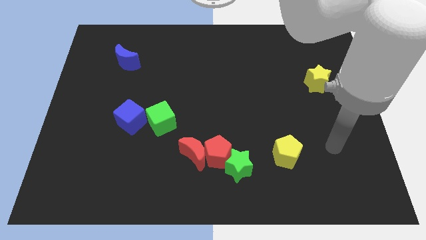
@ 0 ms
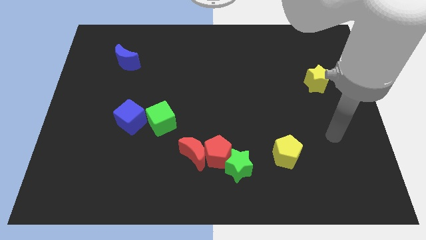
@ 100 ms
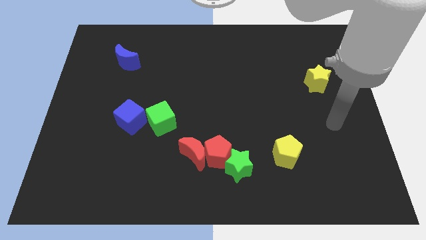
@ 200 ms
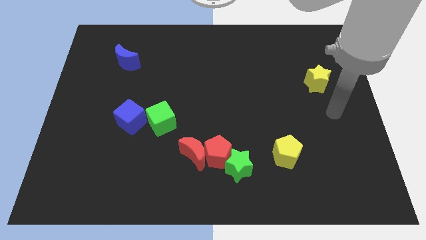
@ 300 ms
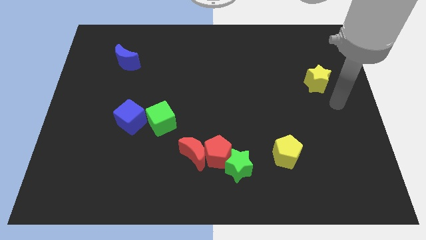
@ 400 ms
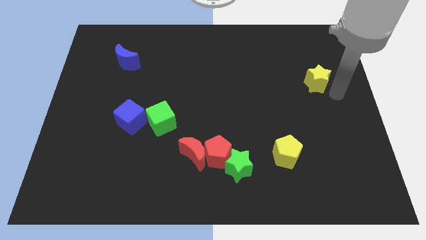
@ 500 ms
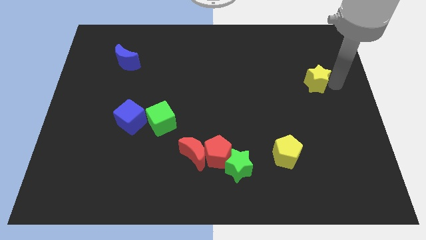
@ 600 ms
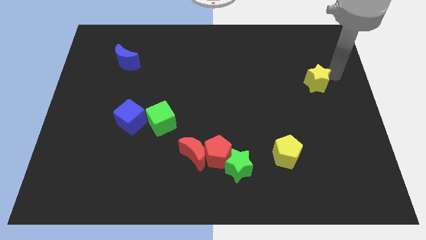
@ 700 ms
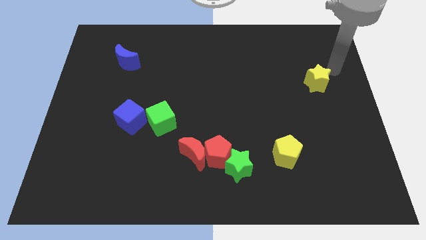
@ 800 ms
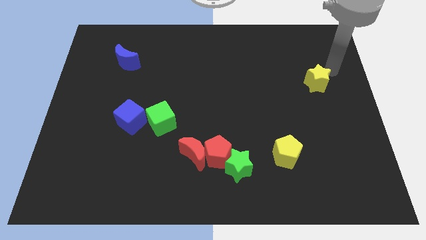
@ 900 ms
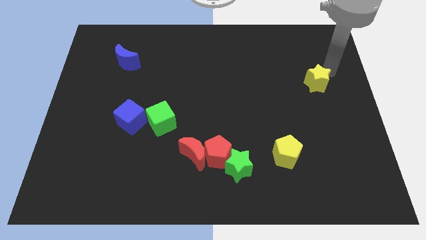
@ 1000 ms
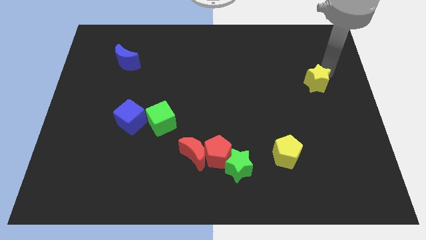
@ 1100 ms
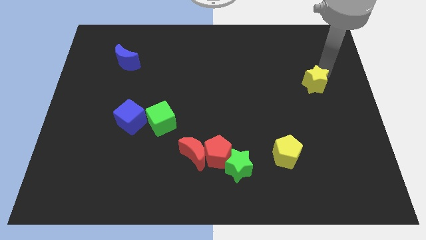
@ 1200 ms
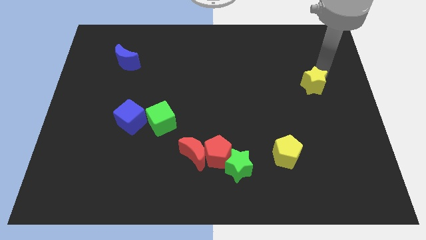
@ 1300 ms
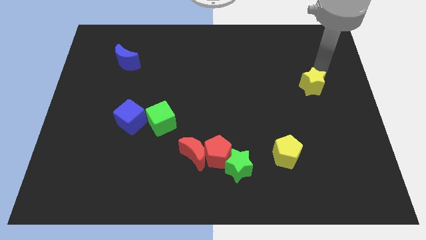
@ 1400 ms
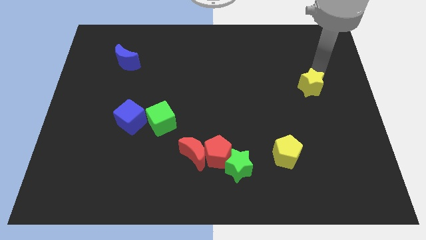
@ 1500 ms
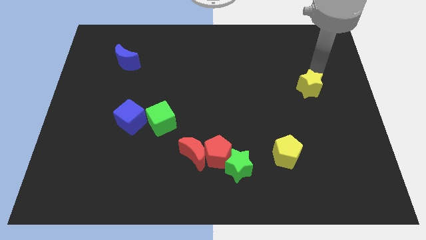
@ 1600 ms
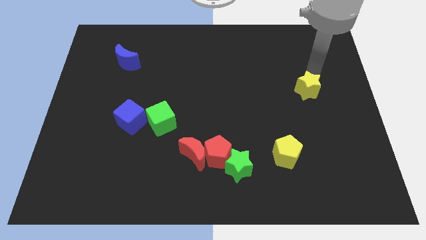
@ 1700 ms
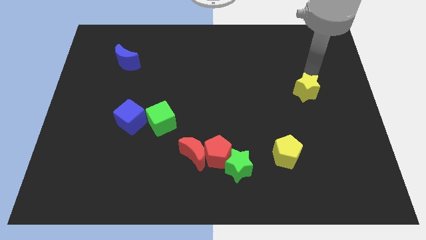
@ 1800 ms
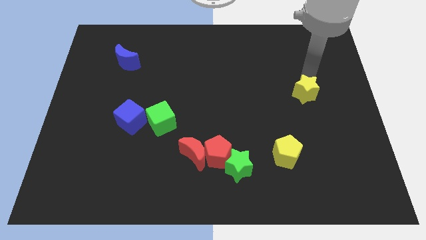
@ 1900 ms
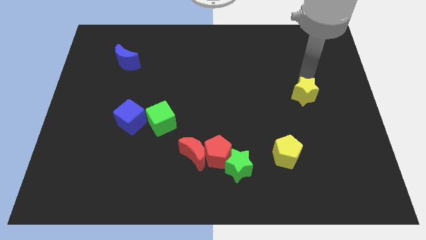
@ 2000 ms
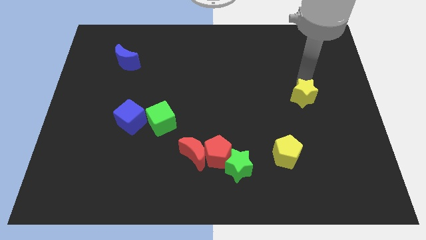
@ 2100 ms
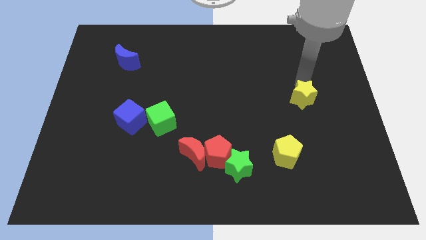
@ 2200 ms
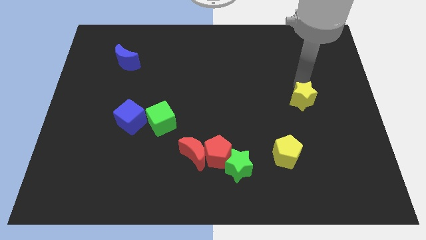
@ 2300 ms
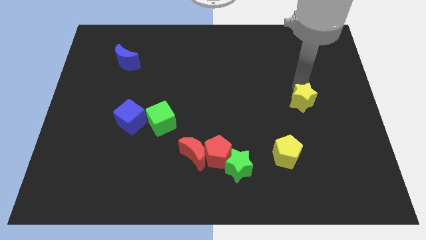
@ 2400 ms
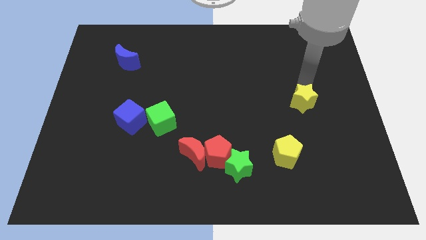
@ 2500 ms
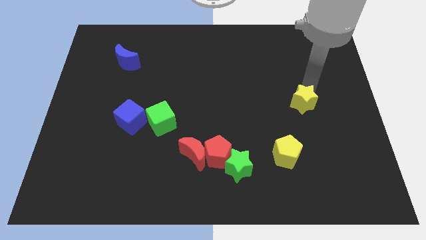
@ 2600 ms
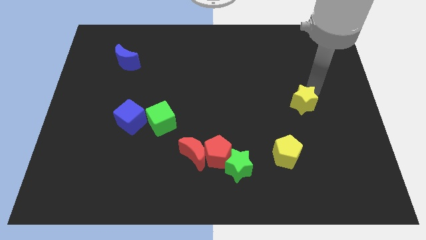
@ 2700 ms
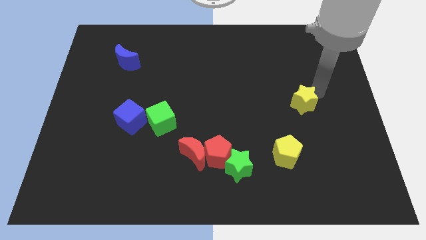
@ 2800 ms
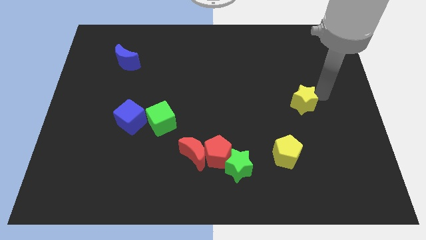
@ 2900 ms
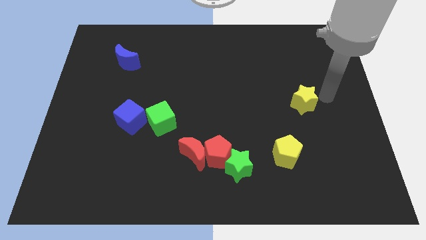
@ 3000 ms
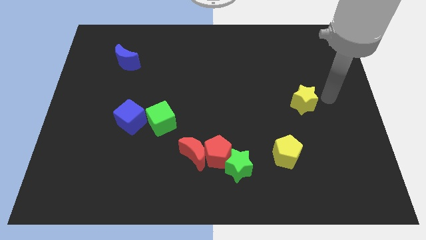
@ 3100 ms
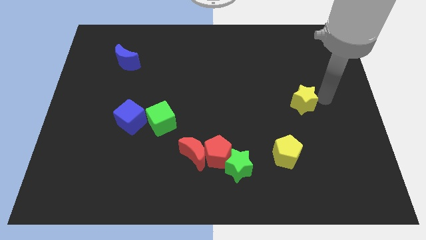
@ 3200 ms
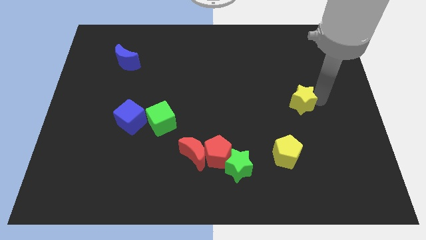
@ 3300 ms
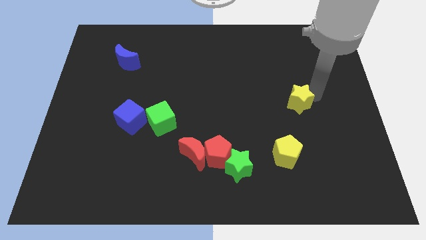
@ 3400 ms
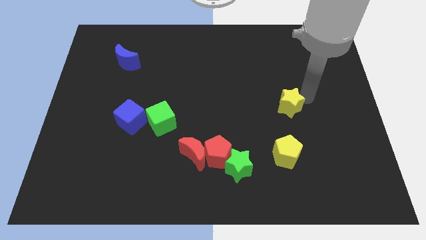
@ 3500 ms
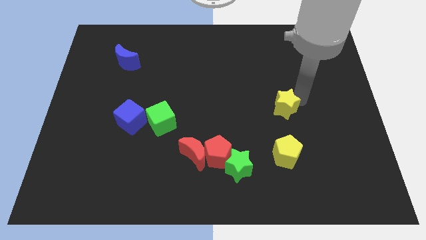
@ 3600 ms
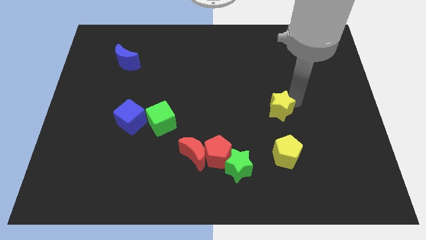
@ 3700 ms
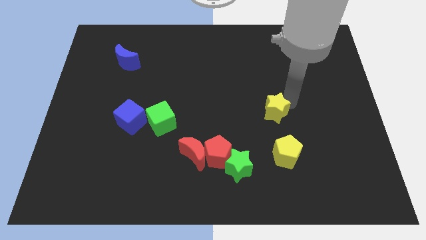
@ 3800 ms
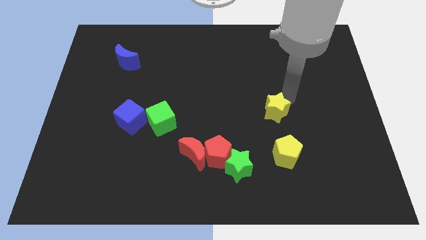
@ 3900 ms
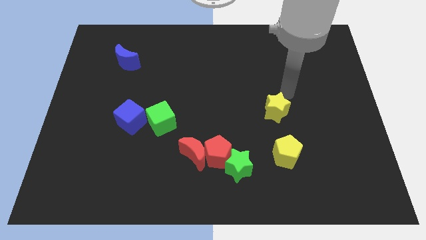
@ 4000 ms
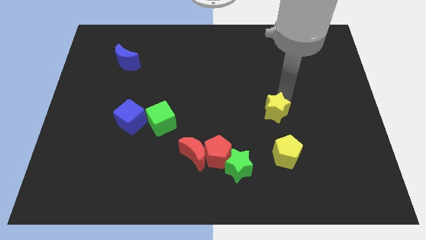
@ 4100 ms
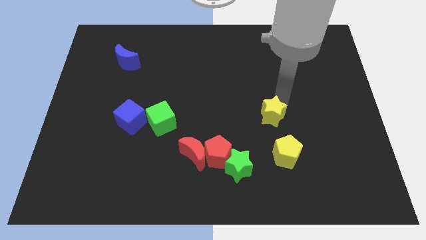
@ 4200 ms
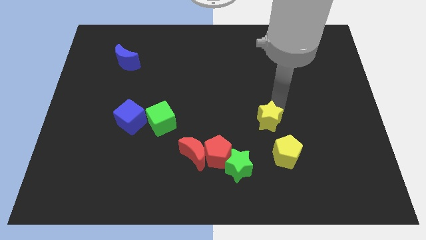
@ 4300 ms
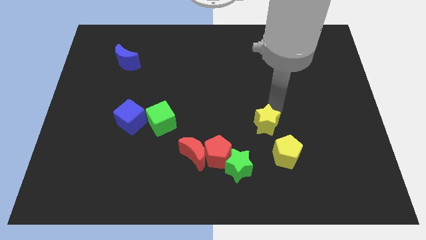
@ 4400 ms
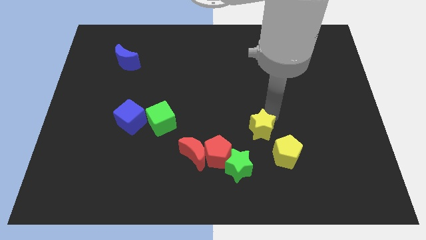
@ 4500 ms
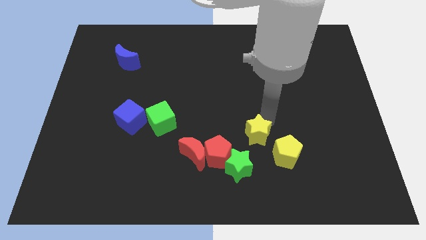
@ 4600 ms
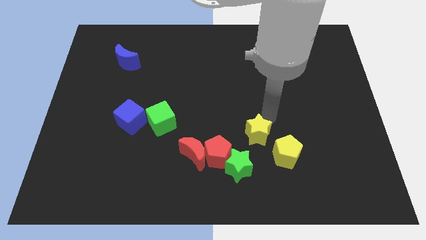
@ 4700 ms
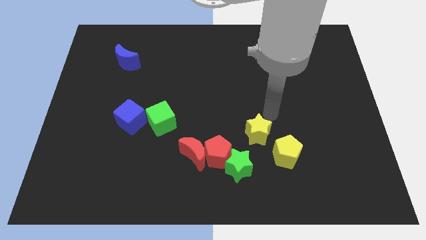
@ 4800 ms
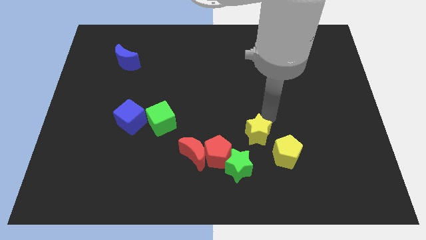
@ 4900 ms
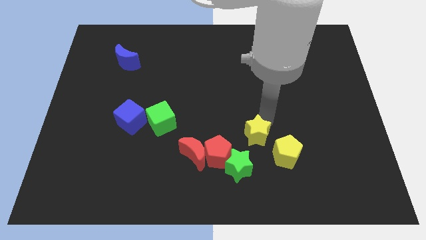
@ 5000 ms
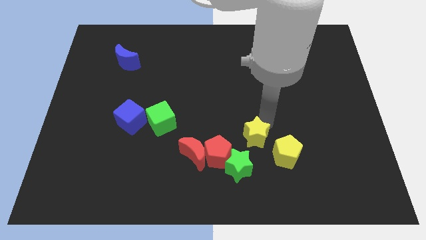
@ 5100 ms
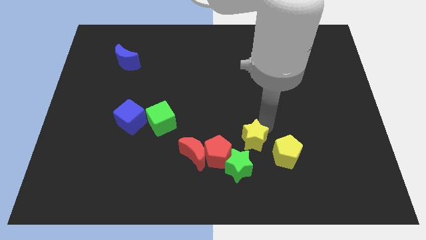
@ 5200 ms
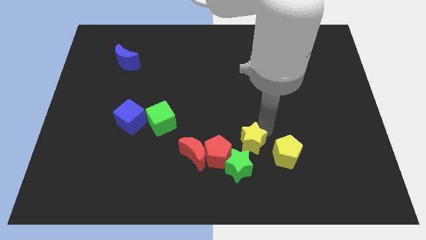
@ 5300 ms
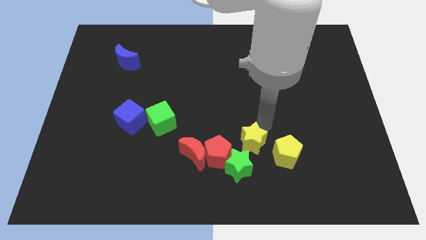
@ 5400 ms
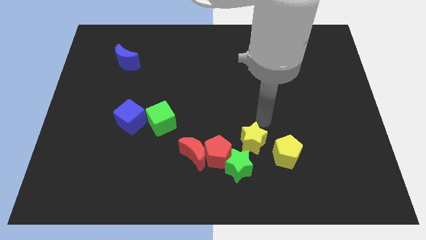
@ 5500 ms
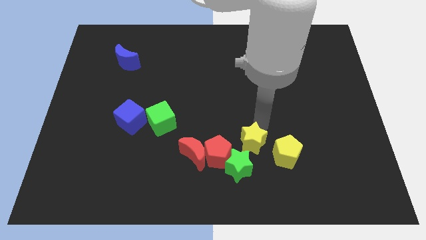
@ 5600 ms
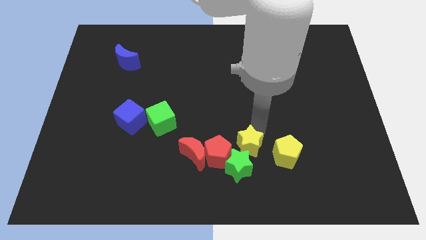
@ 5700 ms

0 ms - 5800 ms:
push the yellow star towards the green star

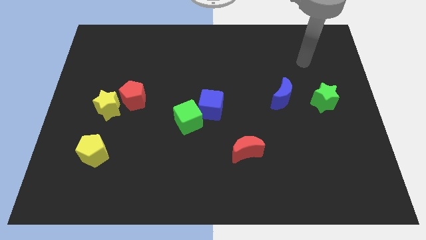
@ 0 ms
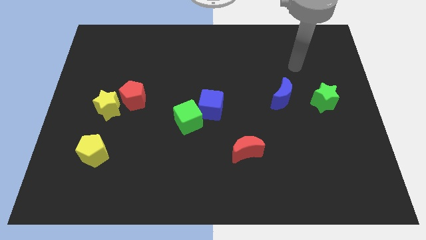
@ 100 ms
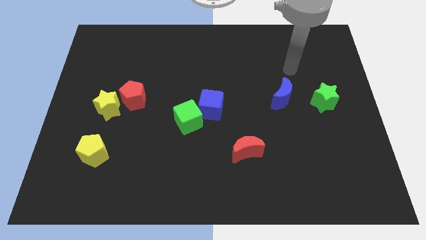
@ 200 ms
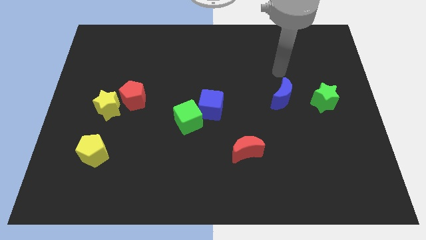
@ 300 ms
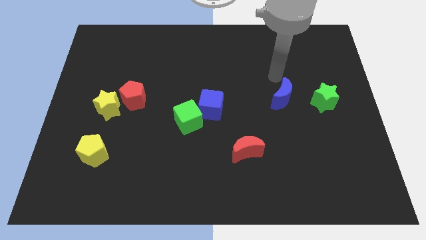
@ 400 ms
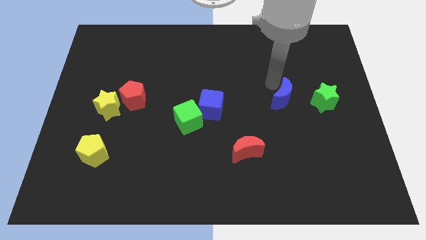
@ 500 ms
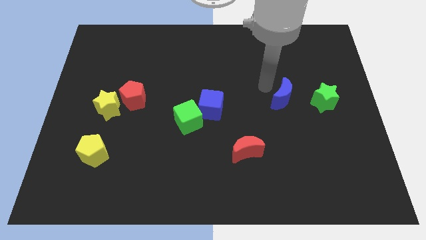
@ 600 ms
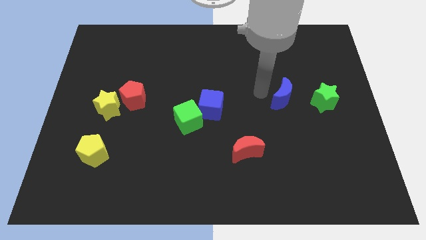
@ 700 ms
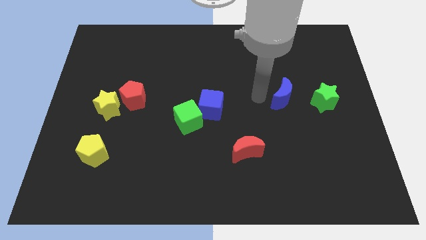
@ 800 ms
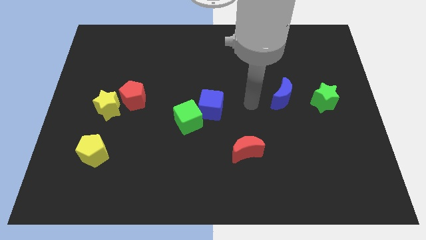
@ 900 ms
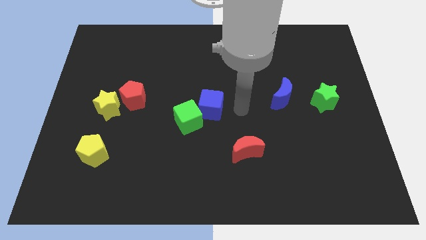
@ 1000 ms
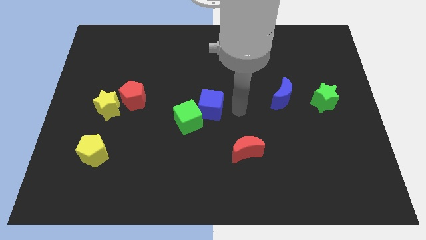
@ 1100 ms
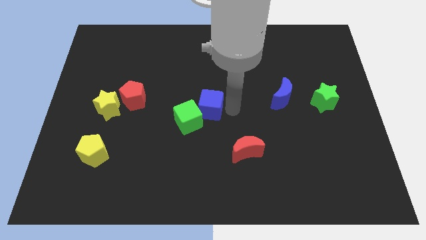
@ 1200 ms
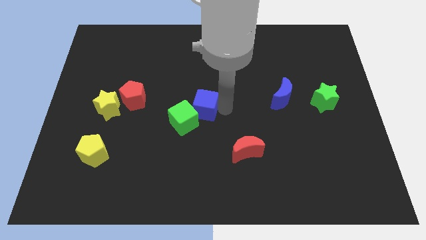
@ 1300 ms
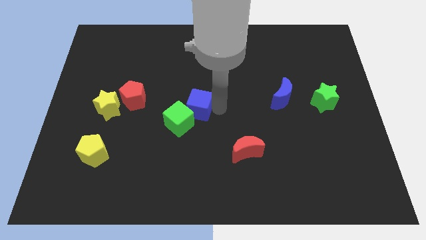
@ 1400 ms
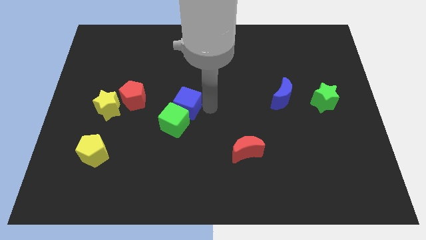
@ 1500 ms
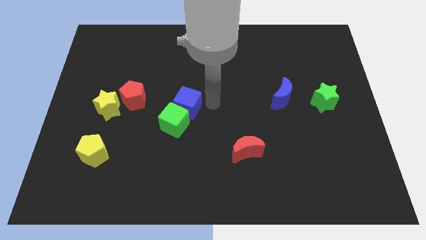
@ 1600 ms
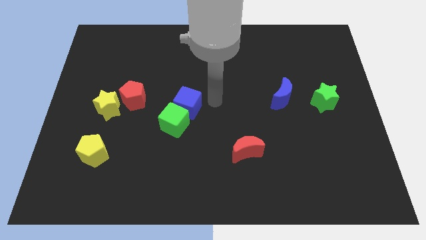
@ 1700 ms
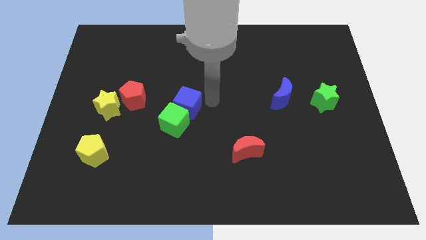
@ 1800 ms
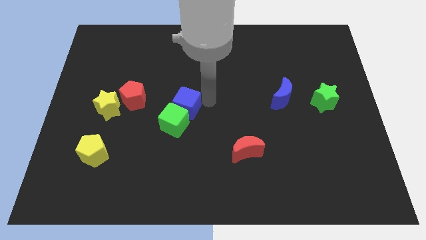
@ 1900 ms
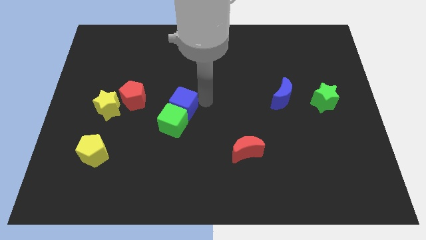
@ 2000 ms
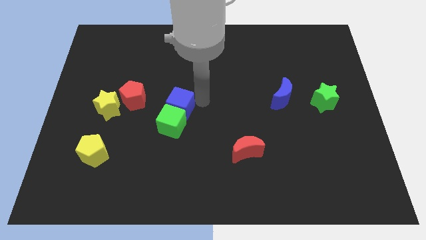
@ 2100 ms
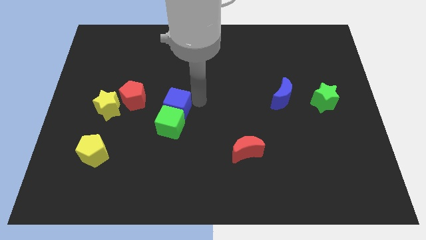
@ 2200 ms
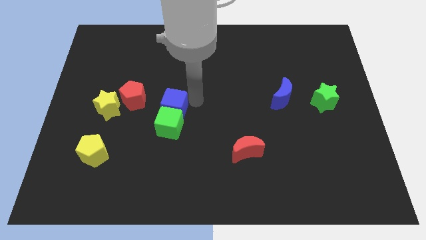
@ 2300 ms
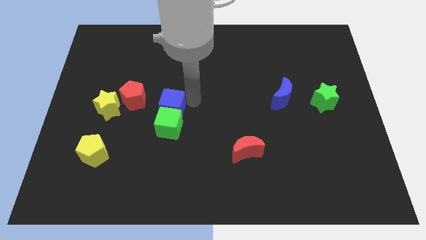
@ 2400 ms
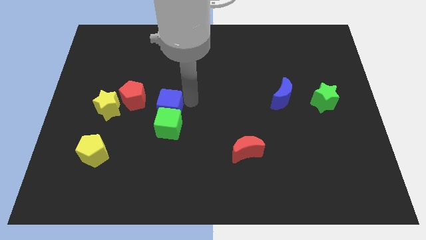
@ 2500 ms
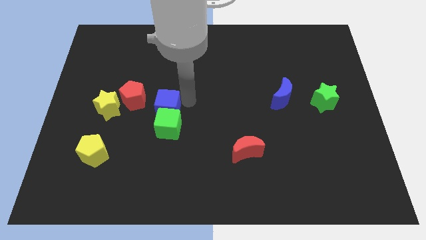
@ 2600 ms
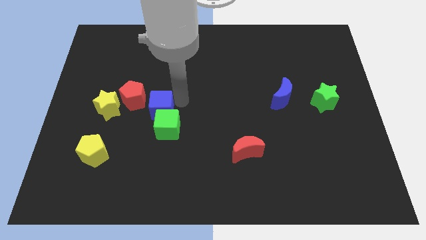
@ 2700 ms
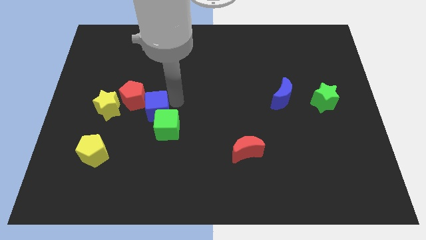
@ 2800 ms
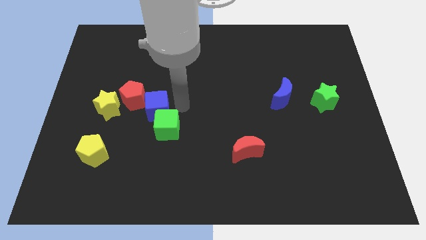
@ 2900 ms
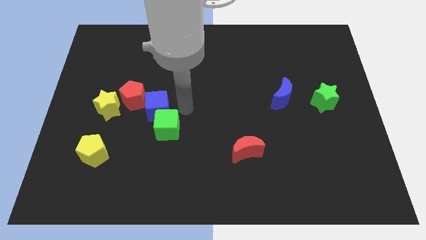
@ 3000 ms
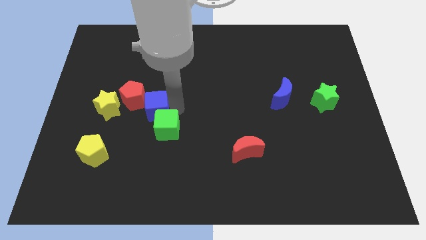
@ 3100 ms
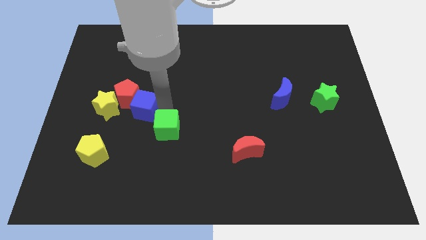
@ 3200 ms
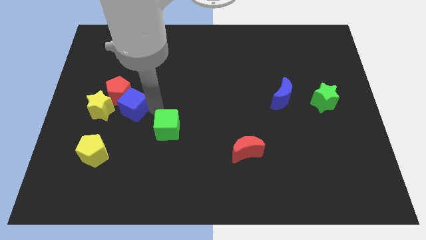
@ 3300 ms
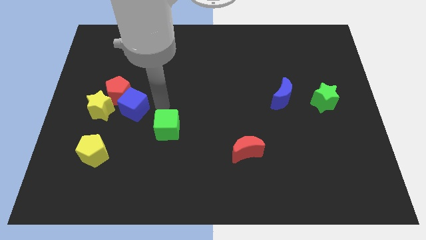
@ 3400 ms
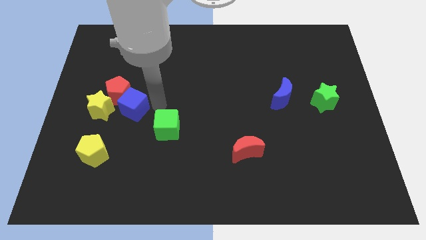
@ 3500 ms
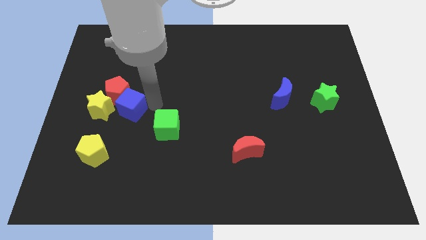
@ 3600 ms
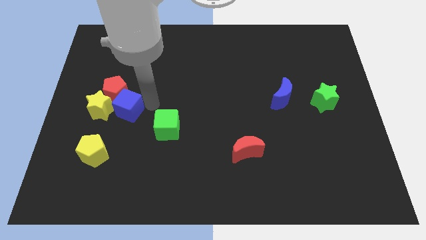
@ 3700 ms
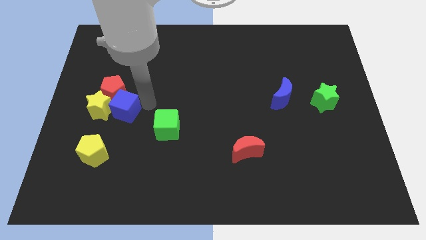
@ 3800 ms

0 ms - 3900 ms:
put the blue cube to the yellow star
